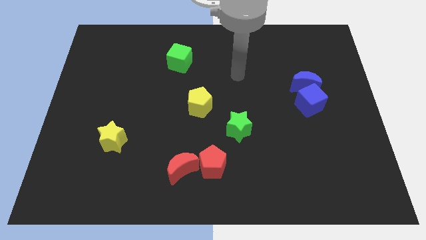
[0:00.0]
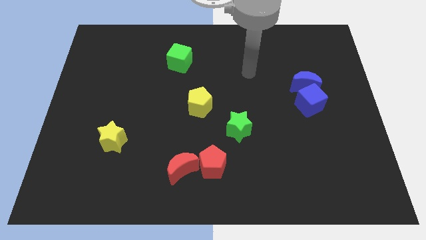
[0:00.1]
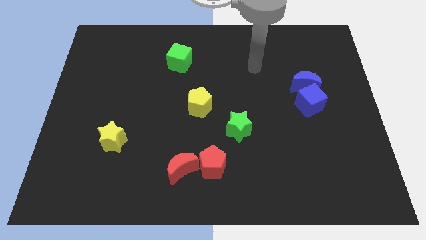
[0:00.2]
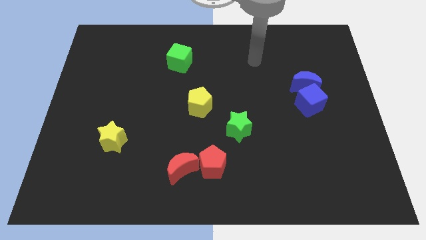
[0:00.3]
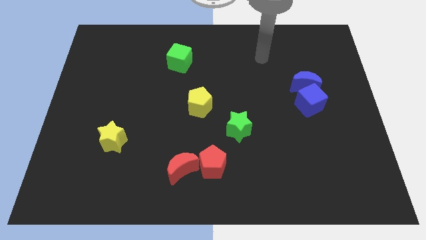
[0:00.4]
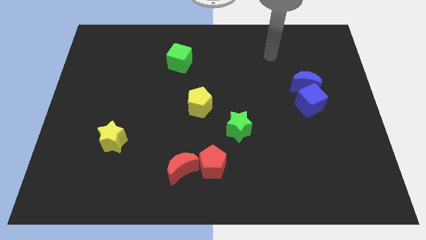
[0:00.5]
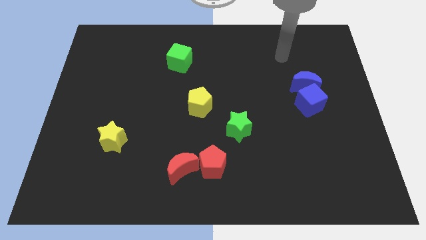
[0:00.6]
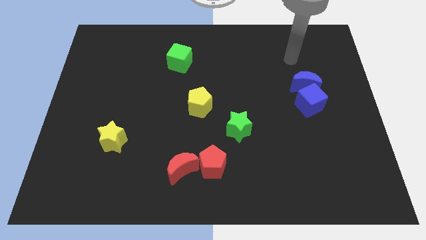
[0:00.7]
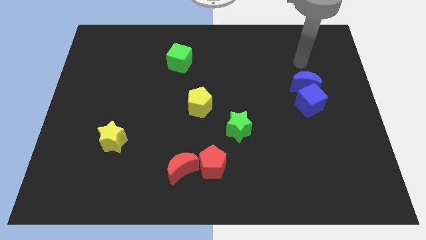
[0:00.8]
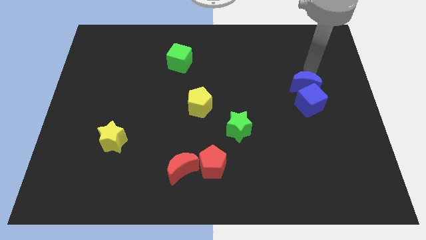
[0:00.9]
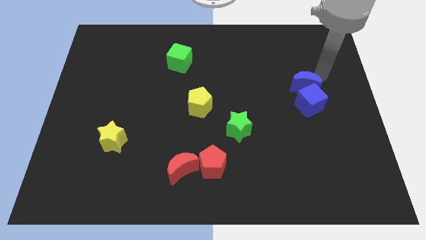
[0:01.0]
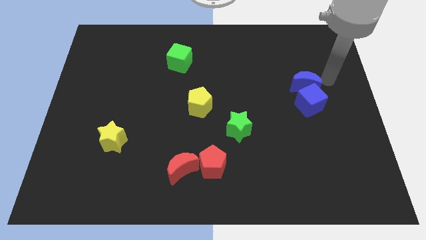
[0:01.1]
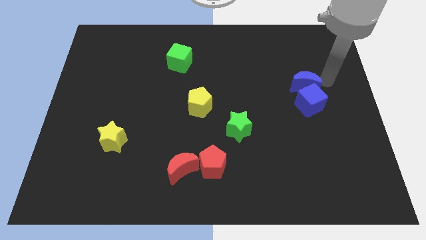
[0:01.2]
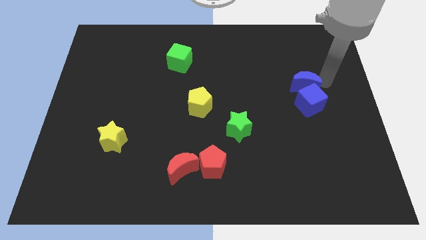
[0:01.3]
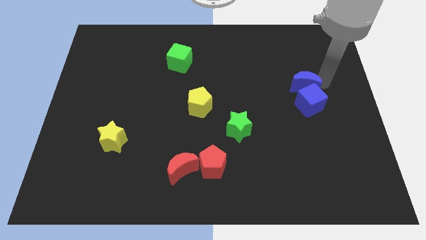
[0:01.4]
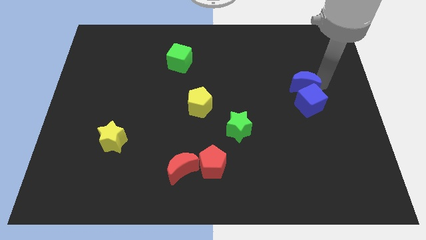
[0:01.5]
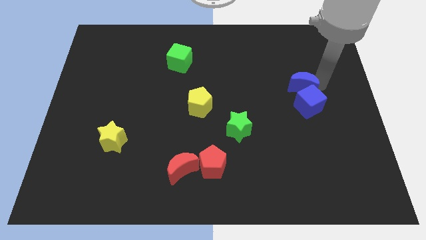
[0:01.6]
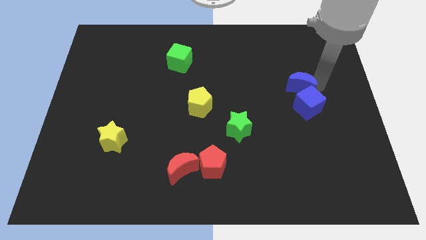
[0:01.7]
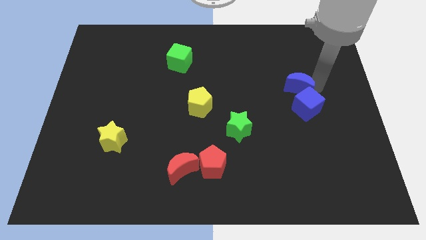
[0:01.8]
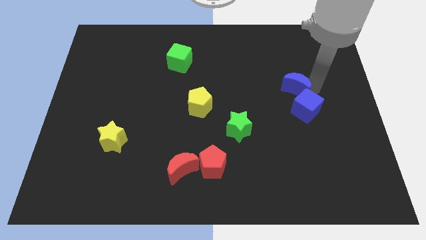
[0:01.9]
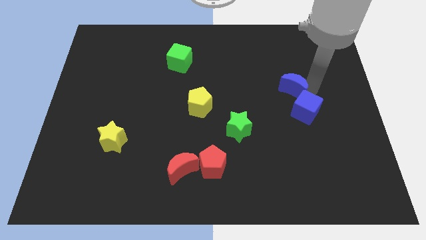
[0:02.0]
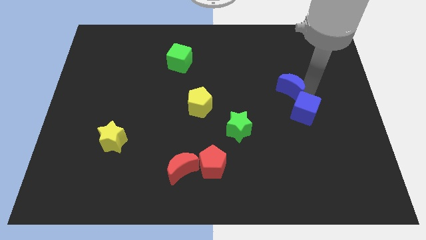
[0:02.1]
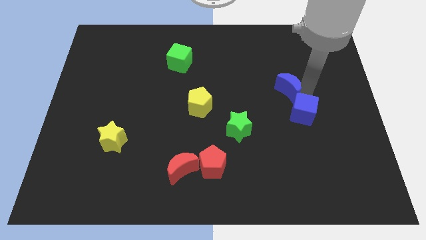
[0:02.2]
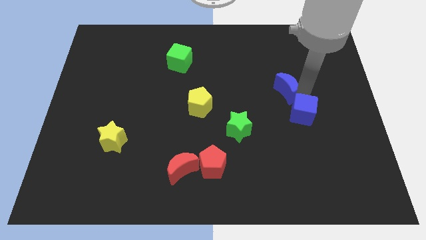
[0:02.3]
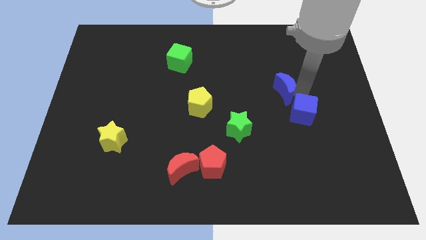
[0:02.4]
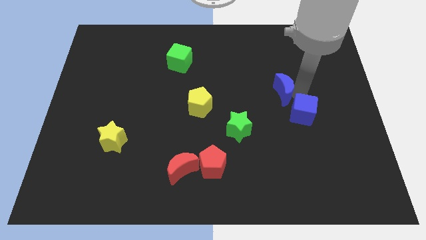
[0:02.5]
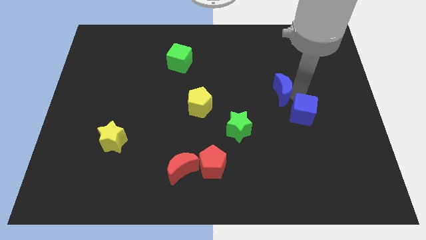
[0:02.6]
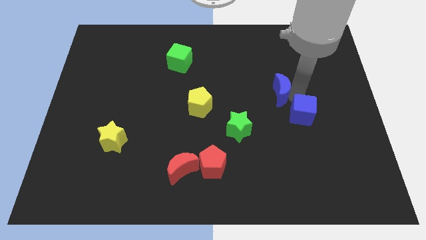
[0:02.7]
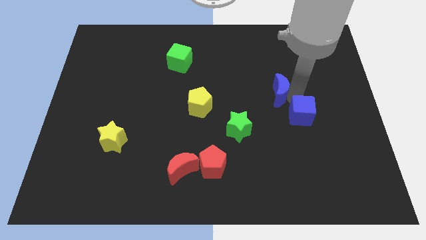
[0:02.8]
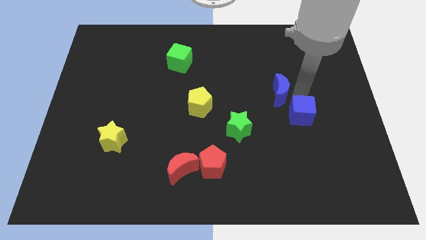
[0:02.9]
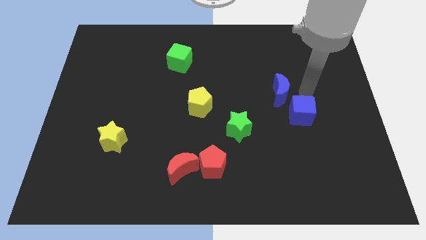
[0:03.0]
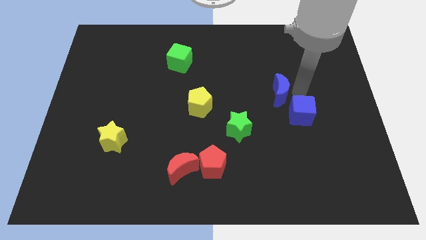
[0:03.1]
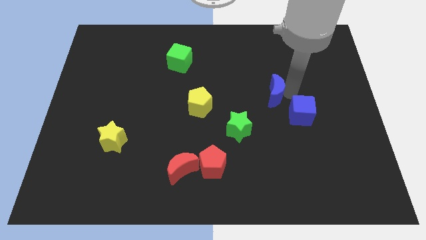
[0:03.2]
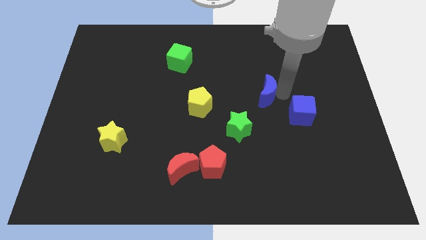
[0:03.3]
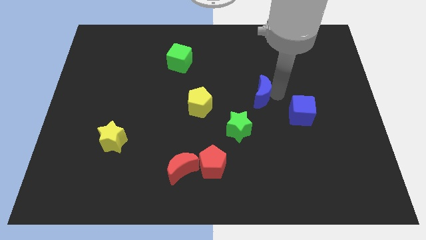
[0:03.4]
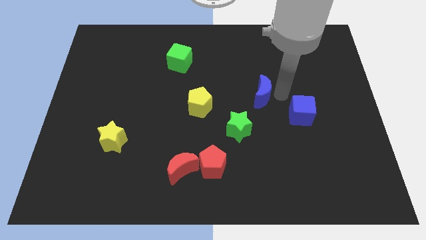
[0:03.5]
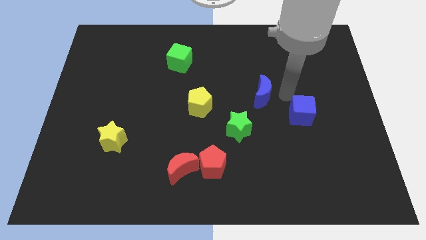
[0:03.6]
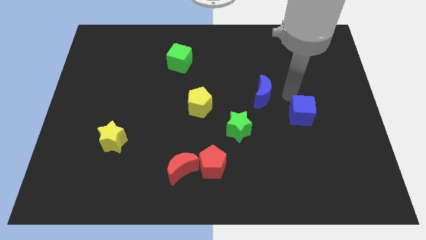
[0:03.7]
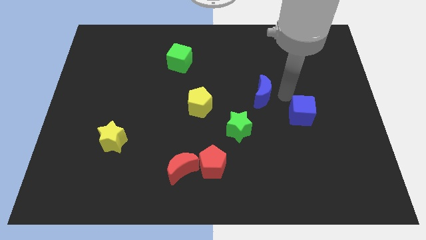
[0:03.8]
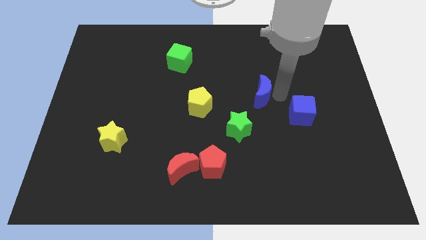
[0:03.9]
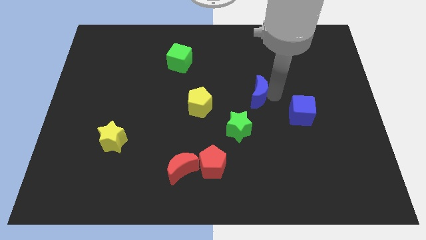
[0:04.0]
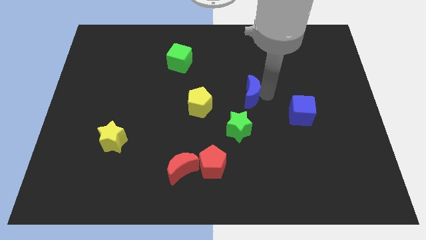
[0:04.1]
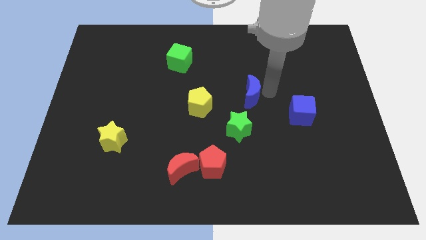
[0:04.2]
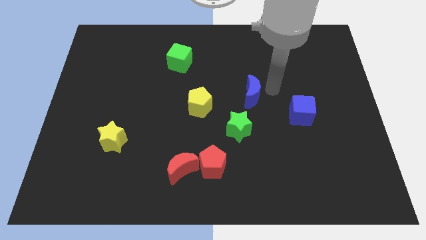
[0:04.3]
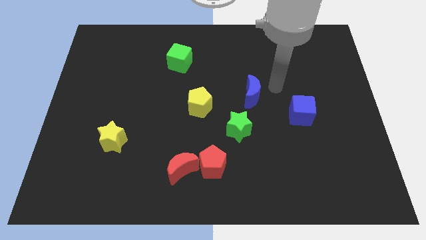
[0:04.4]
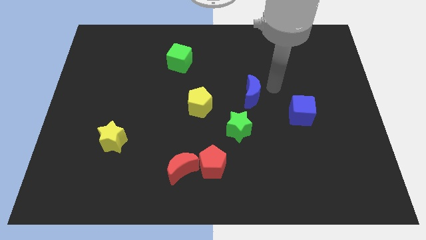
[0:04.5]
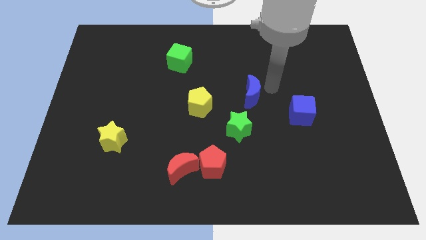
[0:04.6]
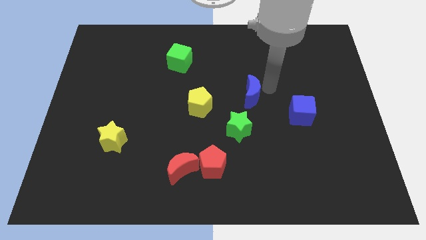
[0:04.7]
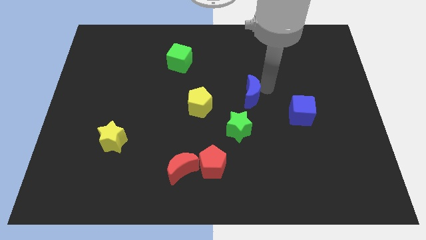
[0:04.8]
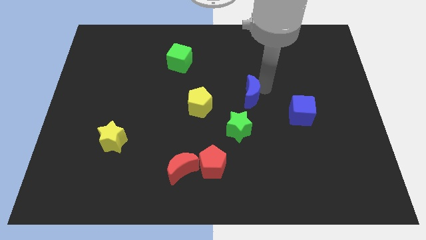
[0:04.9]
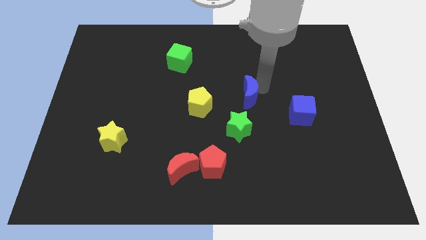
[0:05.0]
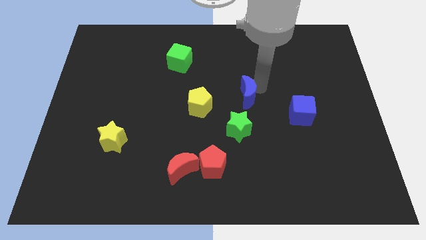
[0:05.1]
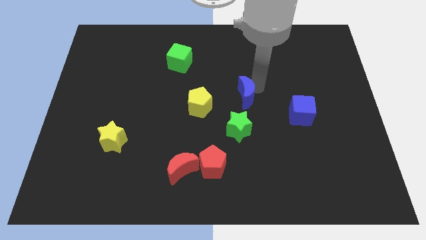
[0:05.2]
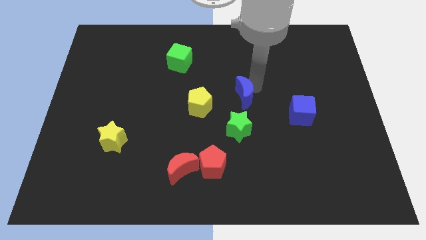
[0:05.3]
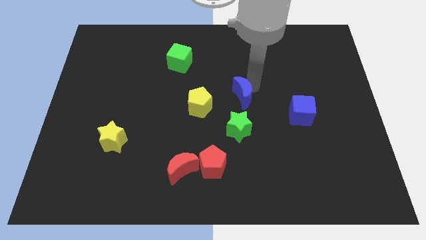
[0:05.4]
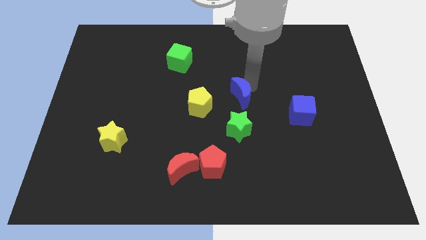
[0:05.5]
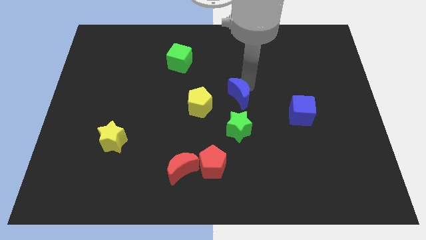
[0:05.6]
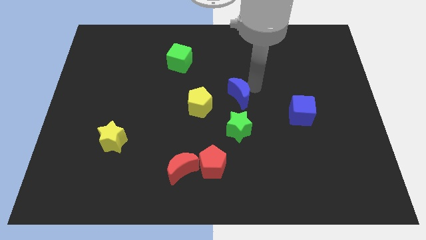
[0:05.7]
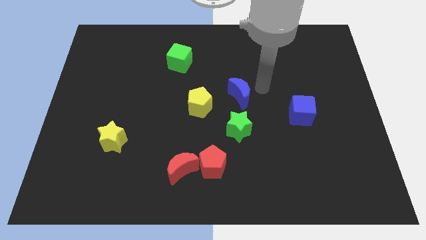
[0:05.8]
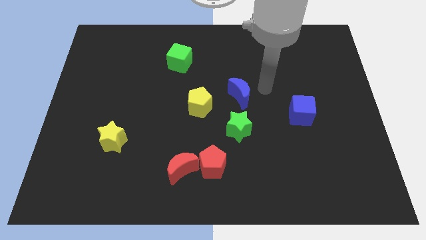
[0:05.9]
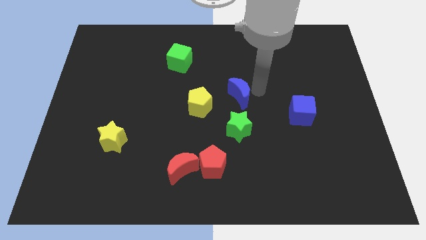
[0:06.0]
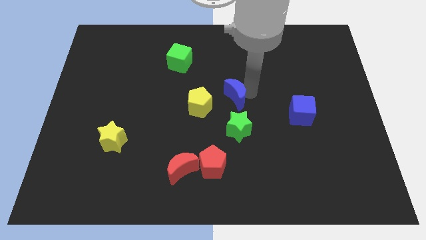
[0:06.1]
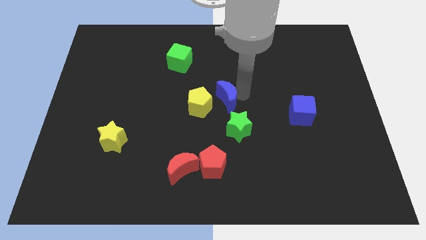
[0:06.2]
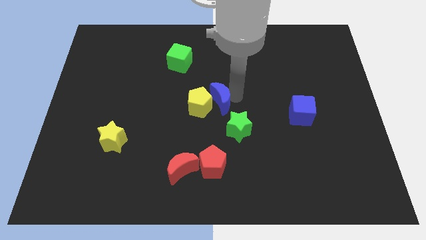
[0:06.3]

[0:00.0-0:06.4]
put the blue moon towards the yellow pentagon
